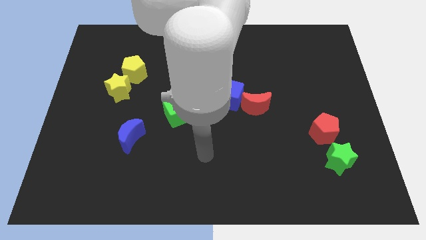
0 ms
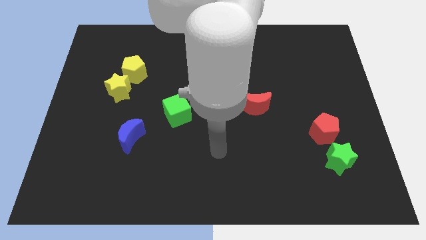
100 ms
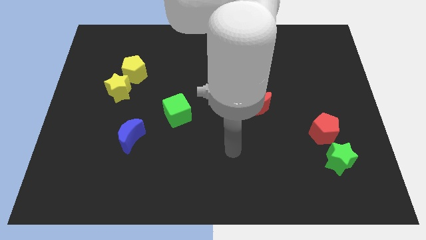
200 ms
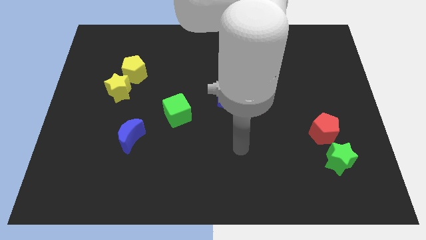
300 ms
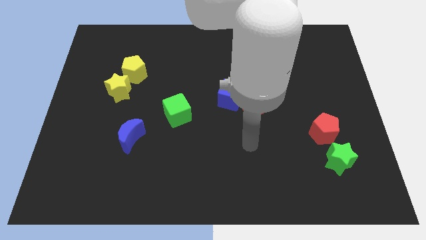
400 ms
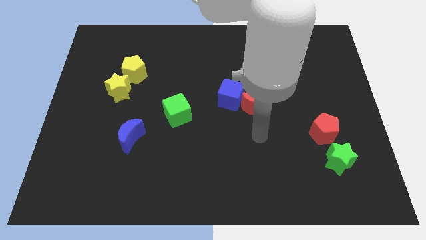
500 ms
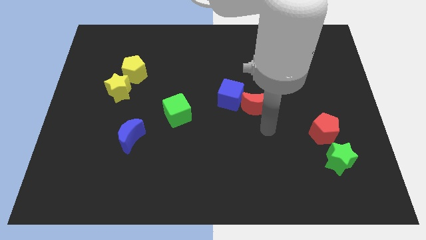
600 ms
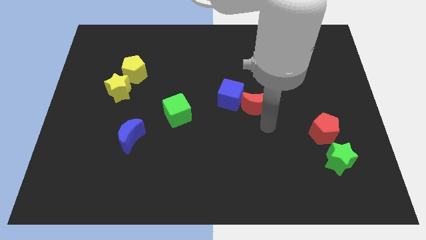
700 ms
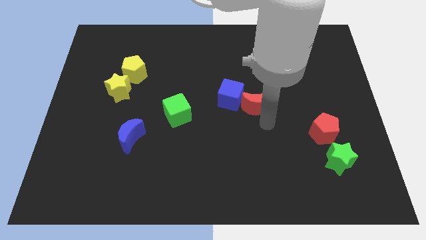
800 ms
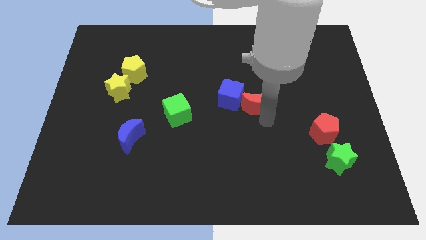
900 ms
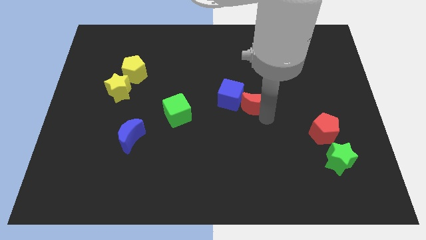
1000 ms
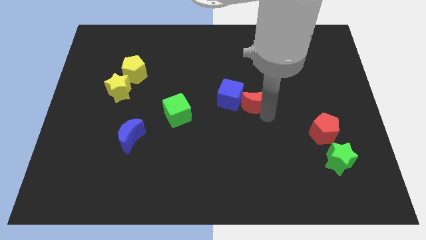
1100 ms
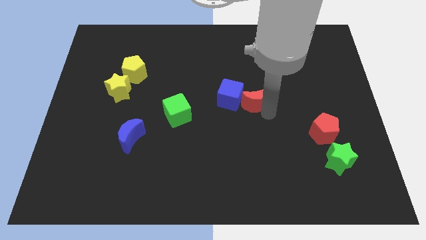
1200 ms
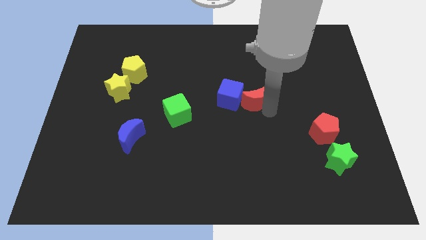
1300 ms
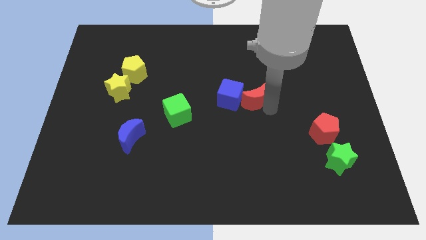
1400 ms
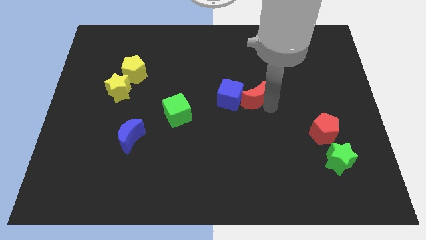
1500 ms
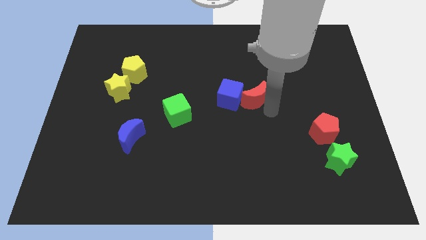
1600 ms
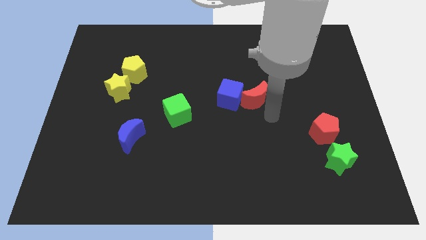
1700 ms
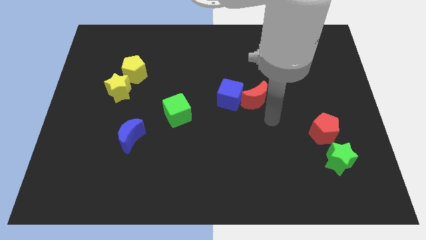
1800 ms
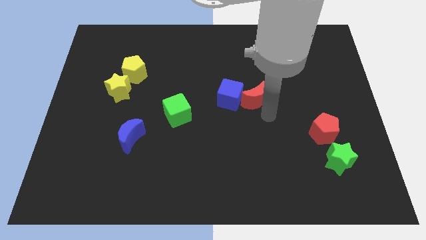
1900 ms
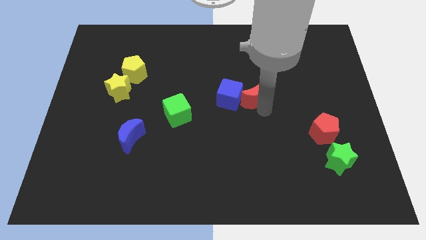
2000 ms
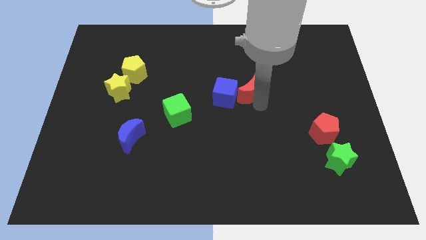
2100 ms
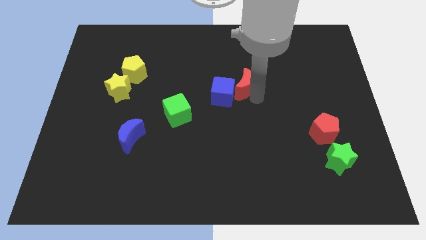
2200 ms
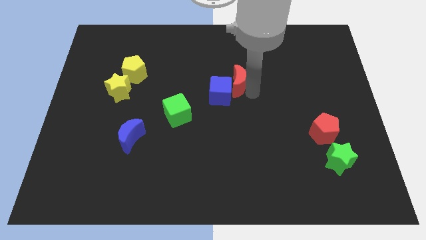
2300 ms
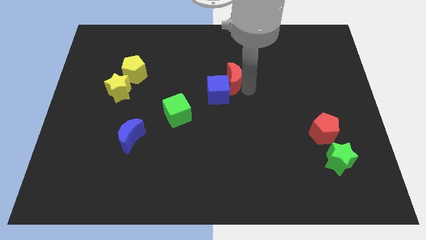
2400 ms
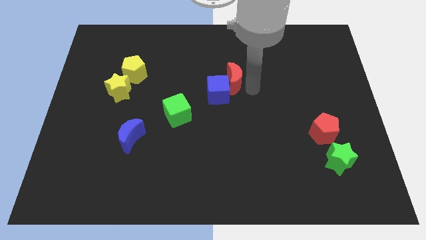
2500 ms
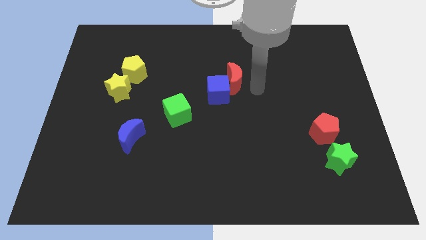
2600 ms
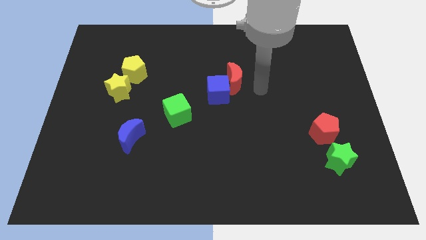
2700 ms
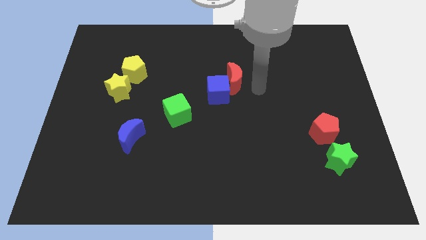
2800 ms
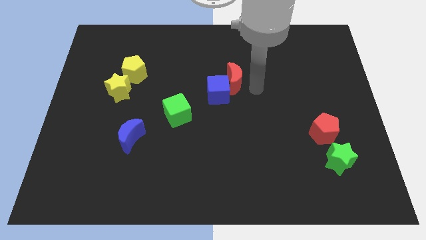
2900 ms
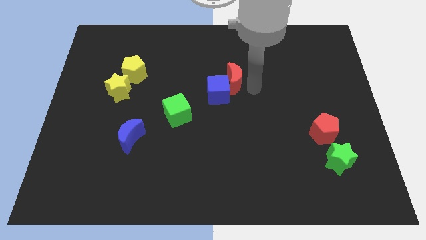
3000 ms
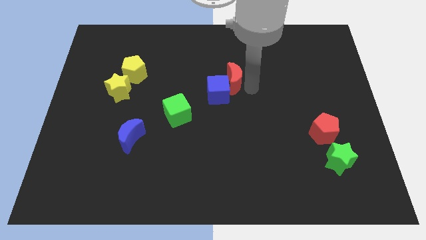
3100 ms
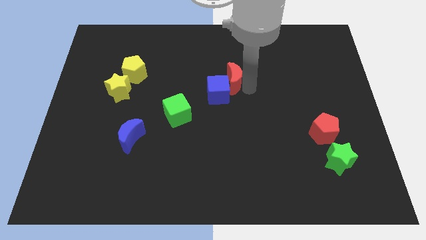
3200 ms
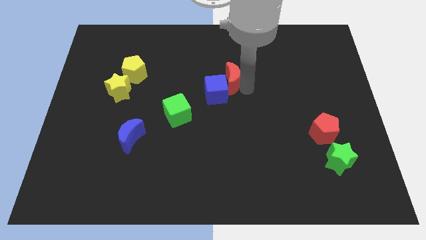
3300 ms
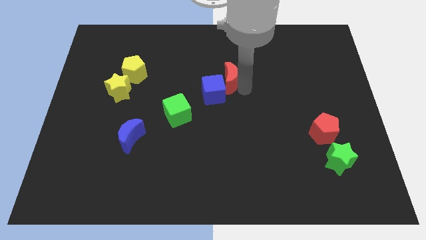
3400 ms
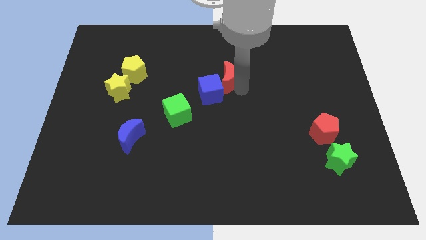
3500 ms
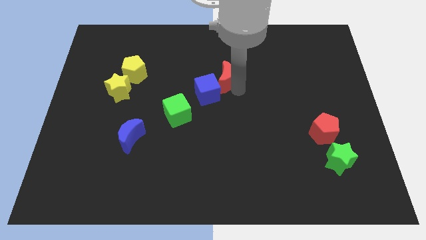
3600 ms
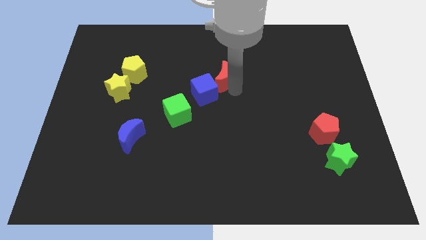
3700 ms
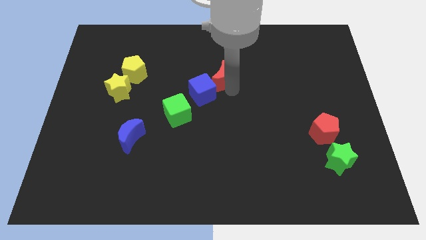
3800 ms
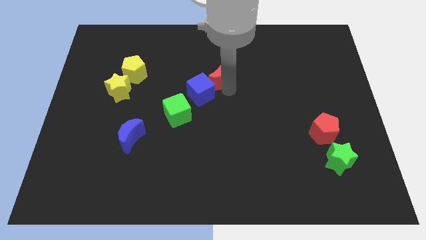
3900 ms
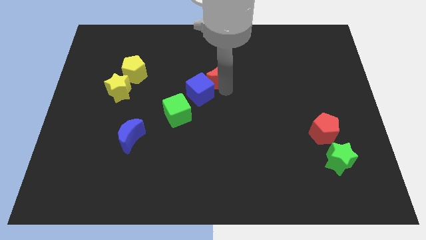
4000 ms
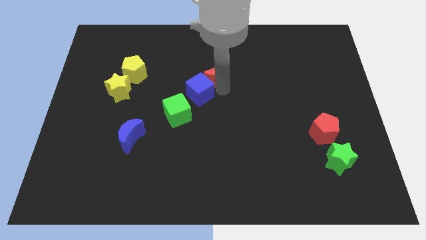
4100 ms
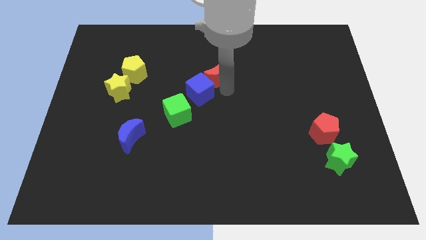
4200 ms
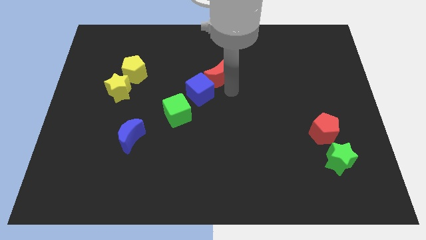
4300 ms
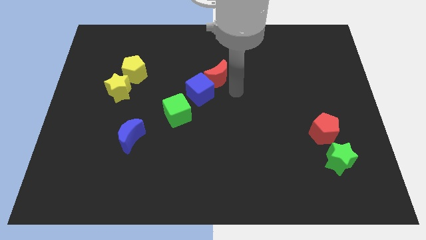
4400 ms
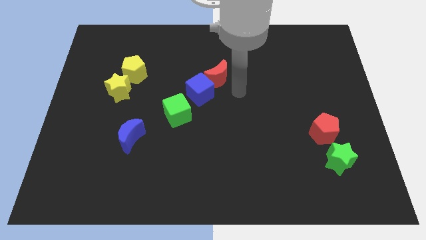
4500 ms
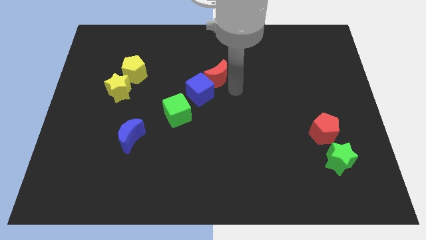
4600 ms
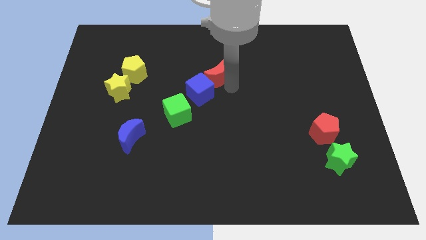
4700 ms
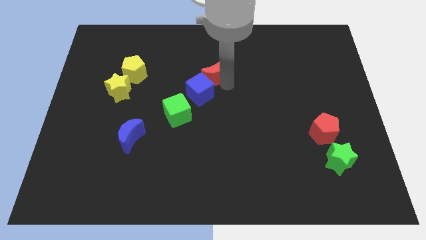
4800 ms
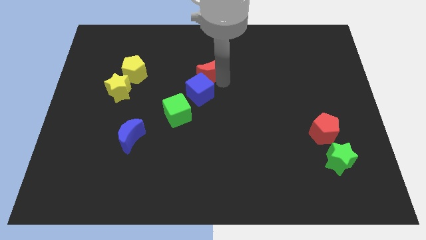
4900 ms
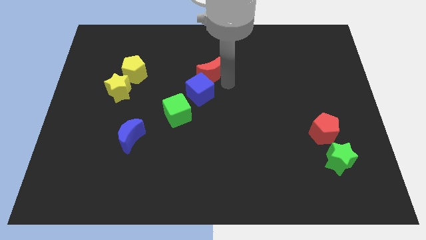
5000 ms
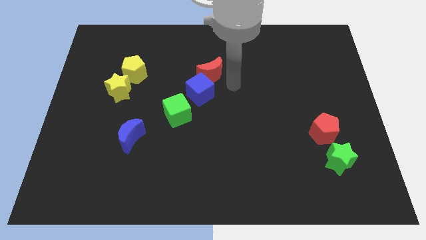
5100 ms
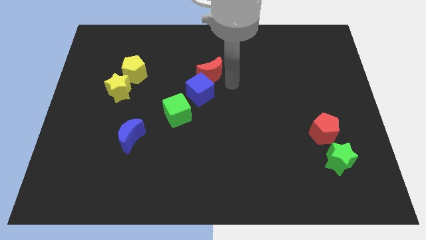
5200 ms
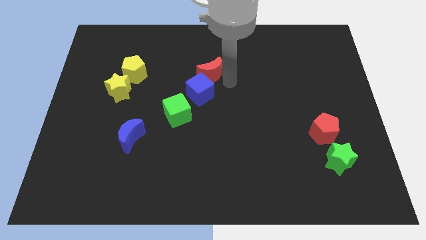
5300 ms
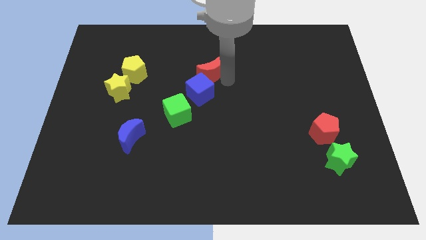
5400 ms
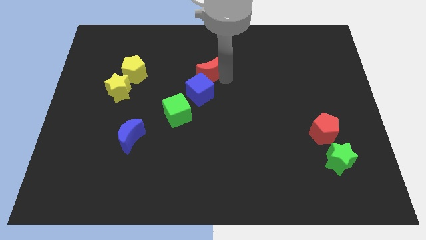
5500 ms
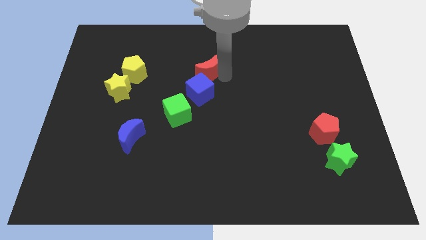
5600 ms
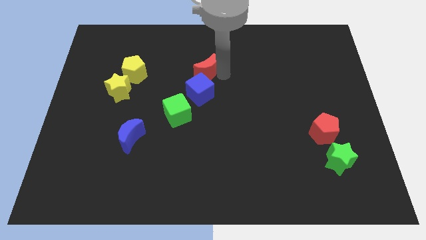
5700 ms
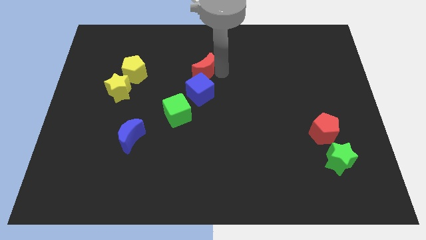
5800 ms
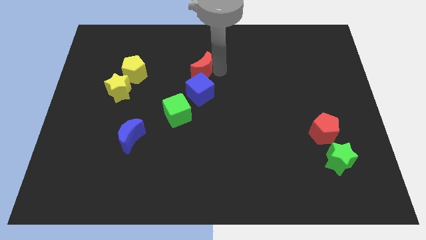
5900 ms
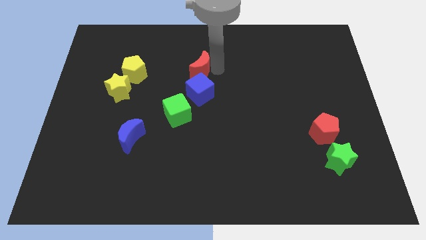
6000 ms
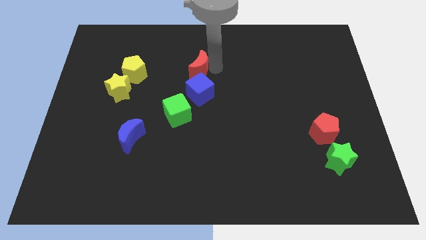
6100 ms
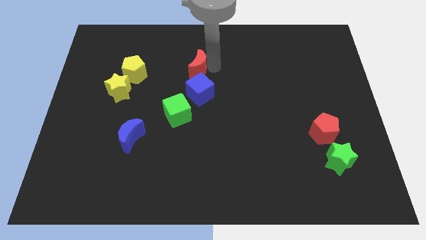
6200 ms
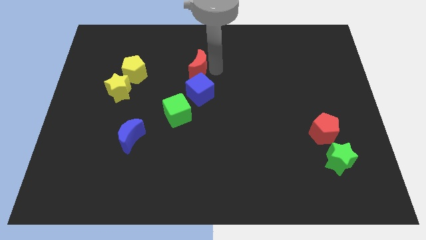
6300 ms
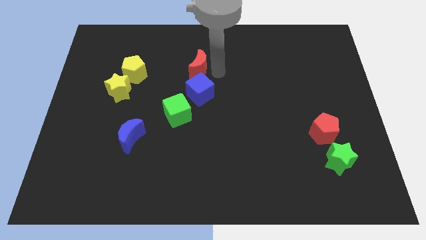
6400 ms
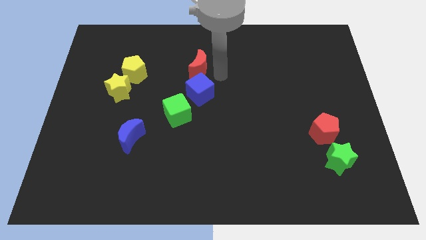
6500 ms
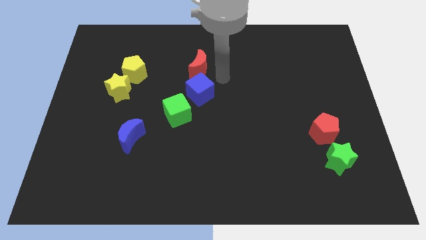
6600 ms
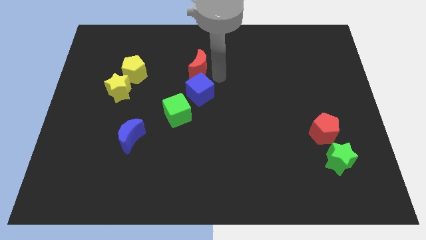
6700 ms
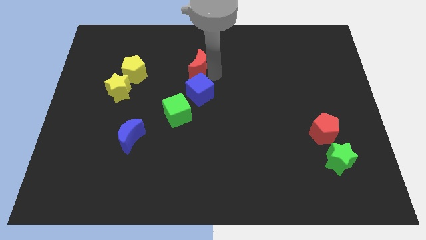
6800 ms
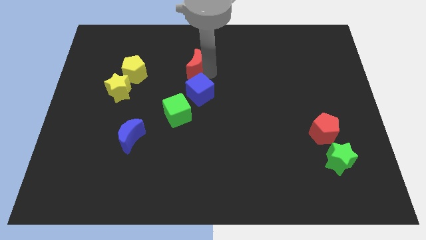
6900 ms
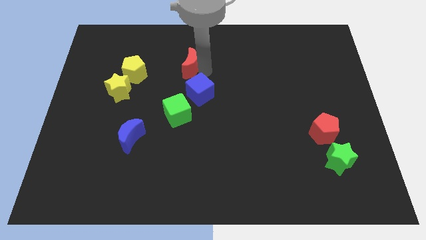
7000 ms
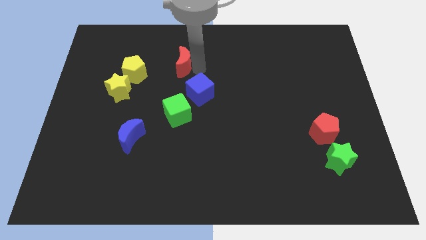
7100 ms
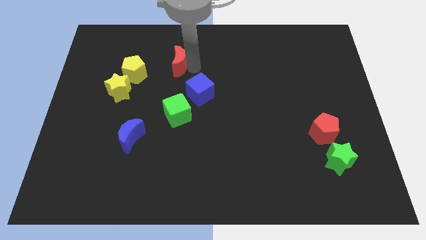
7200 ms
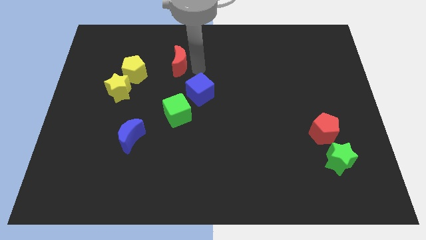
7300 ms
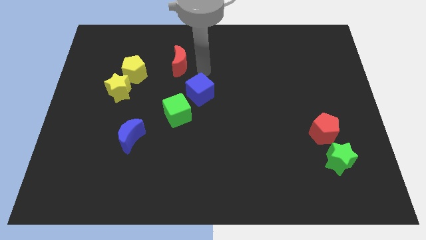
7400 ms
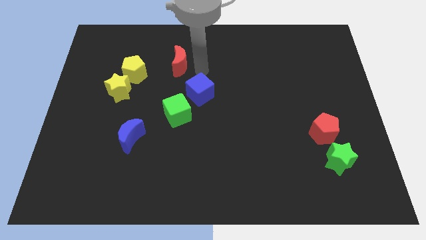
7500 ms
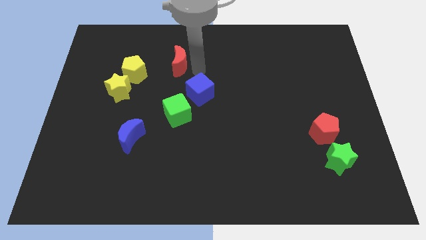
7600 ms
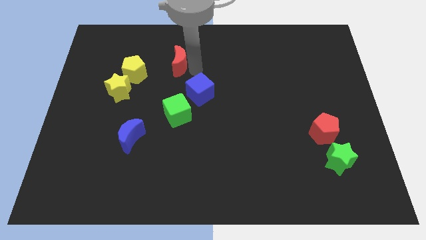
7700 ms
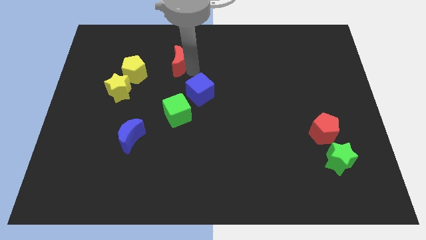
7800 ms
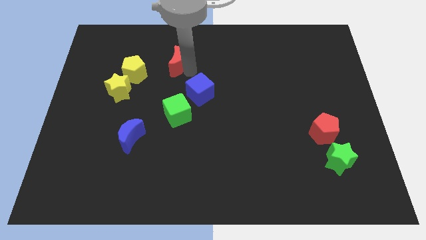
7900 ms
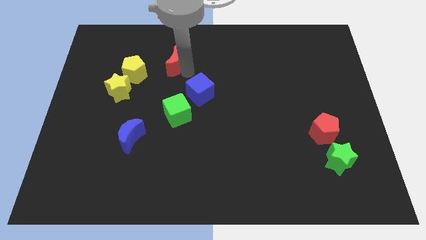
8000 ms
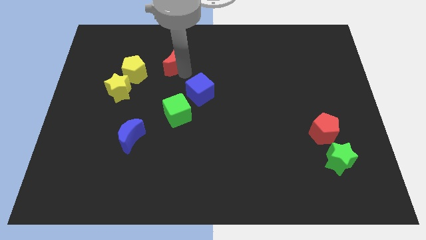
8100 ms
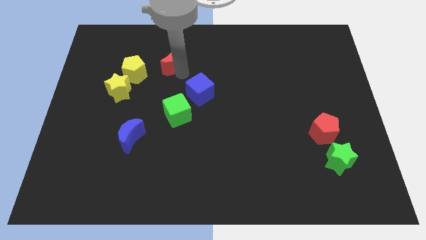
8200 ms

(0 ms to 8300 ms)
slide the red moon to the top right of the yellow pentagon
